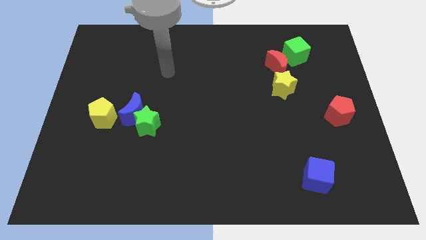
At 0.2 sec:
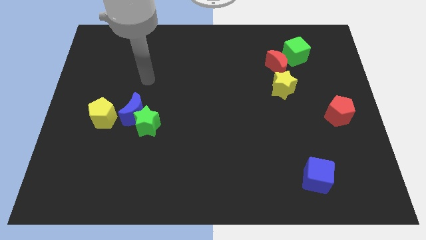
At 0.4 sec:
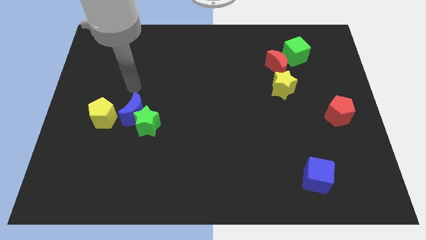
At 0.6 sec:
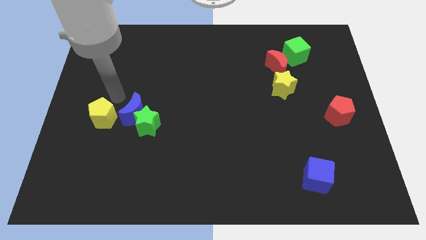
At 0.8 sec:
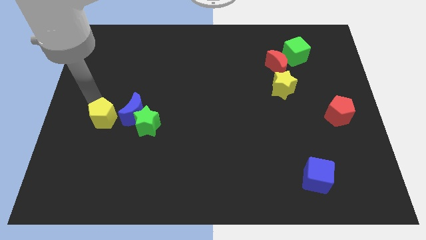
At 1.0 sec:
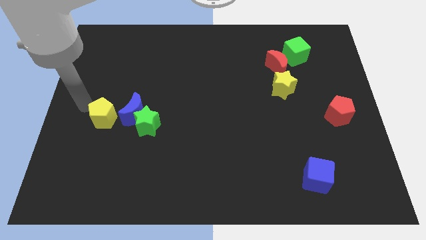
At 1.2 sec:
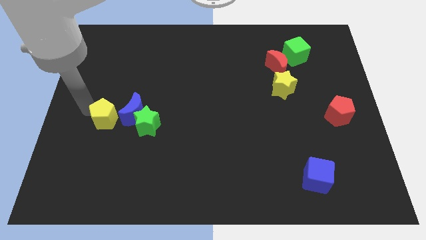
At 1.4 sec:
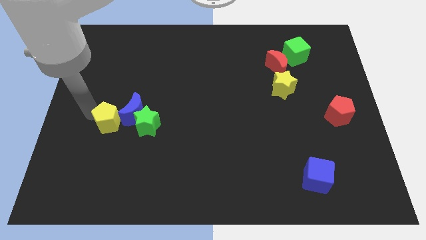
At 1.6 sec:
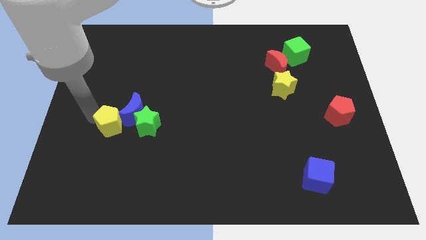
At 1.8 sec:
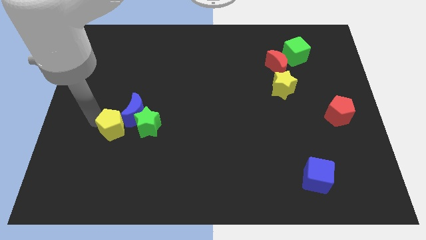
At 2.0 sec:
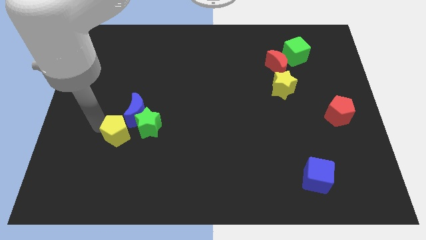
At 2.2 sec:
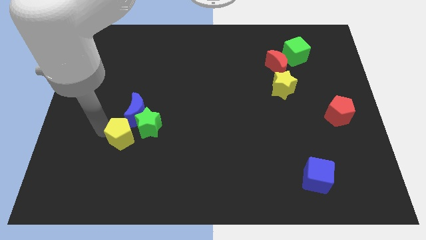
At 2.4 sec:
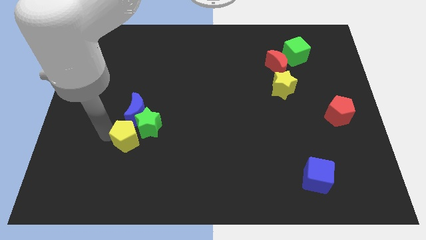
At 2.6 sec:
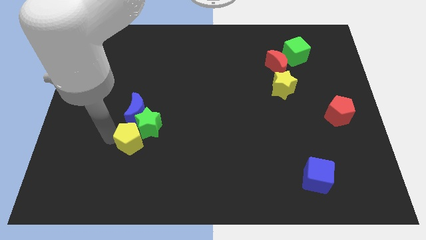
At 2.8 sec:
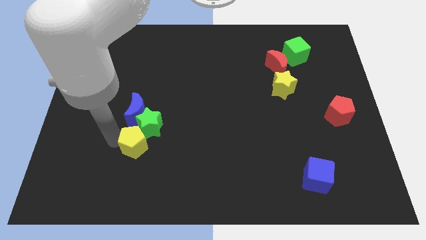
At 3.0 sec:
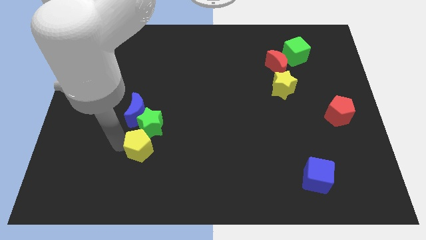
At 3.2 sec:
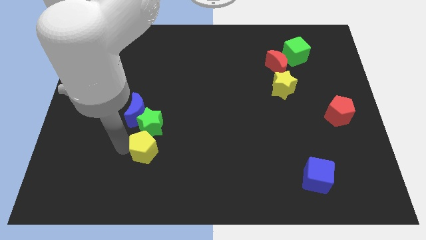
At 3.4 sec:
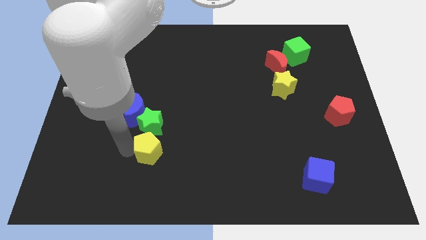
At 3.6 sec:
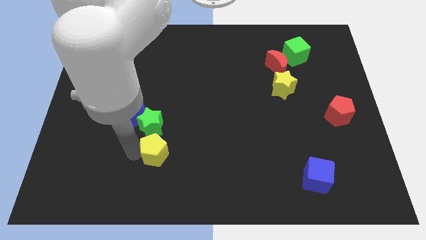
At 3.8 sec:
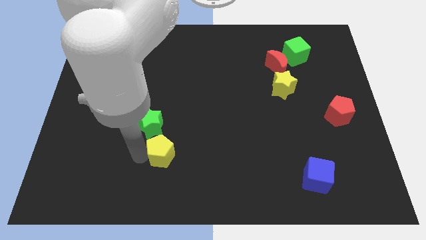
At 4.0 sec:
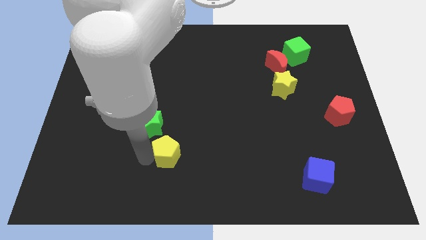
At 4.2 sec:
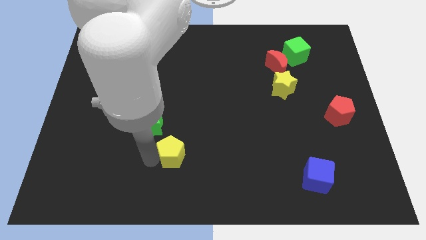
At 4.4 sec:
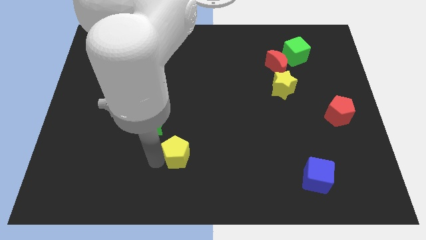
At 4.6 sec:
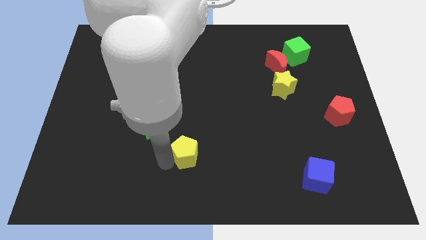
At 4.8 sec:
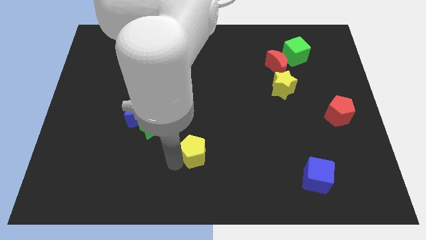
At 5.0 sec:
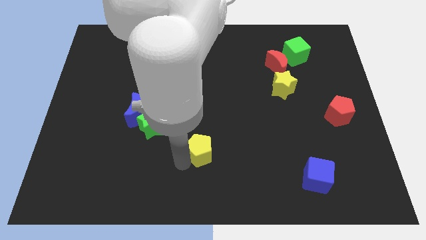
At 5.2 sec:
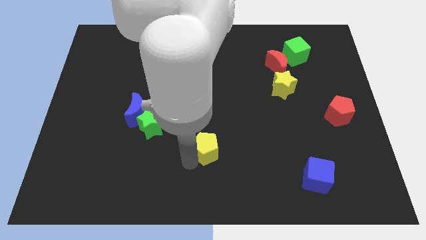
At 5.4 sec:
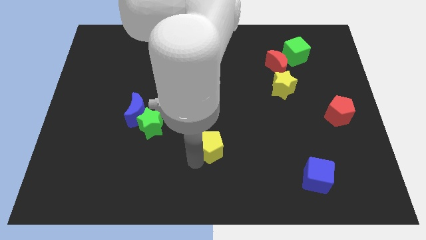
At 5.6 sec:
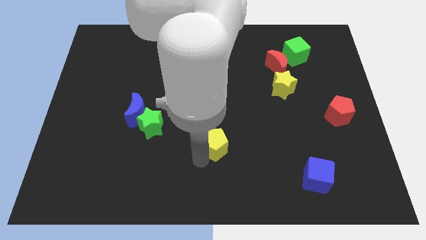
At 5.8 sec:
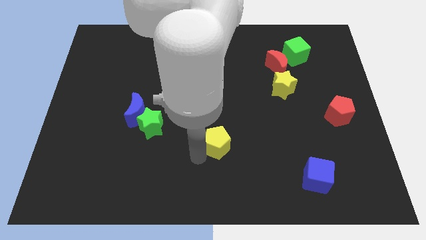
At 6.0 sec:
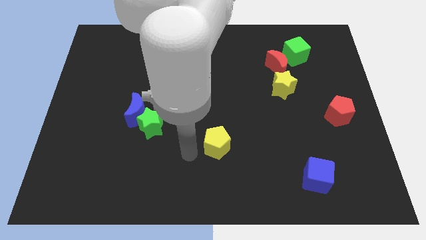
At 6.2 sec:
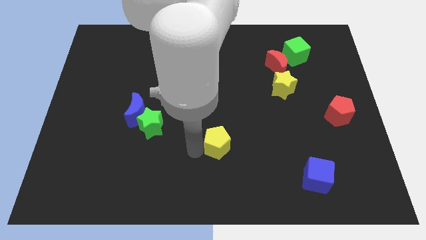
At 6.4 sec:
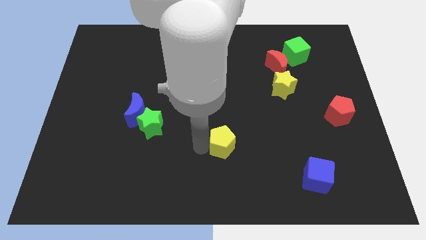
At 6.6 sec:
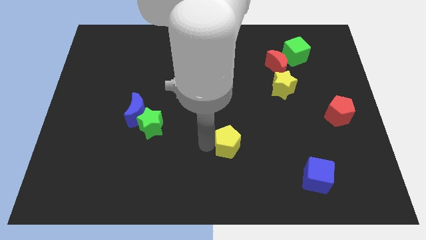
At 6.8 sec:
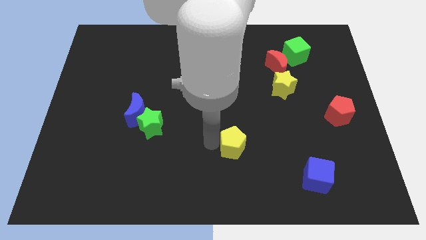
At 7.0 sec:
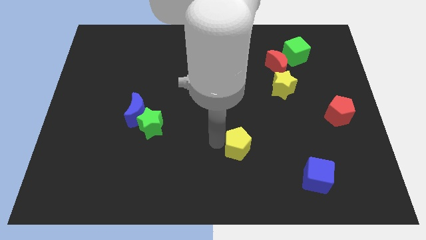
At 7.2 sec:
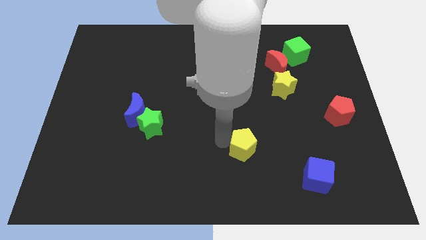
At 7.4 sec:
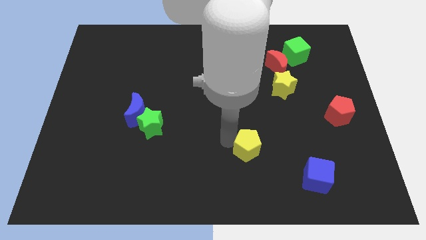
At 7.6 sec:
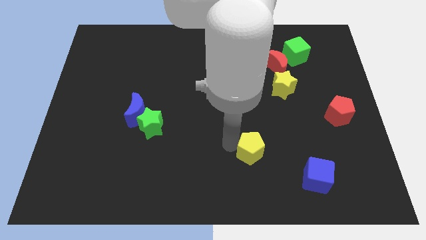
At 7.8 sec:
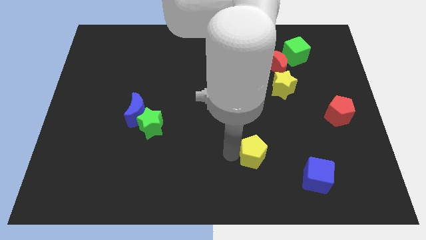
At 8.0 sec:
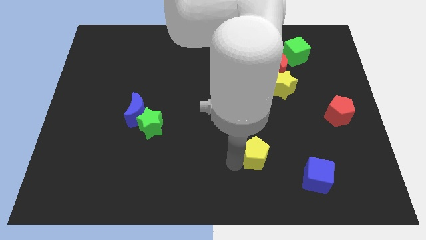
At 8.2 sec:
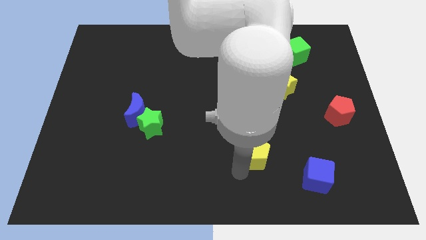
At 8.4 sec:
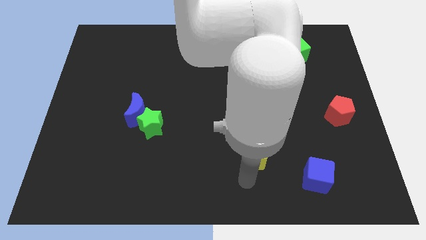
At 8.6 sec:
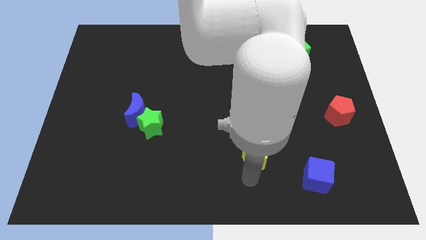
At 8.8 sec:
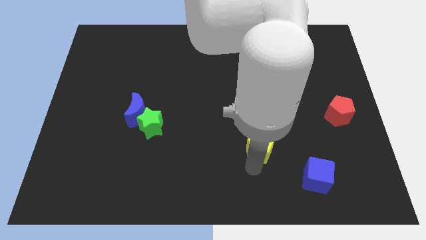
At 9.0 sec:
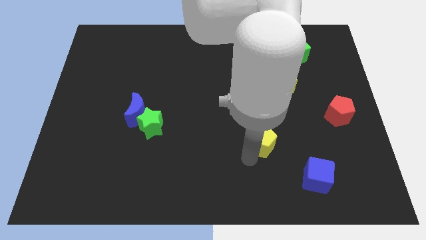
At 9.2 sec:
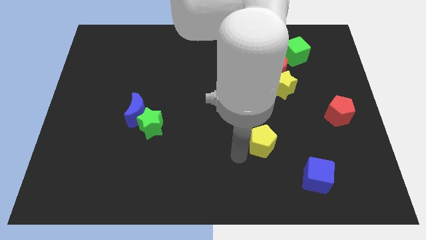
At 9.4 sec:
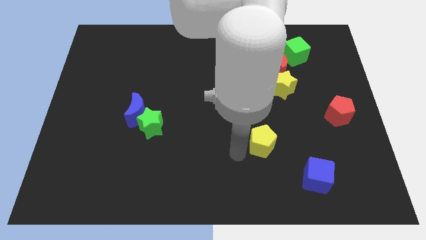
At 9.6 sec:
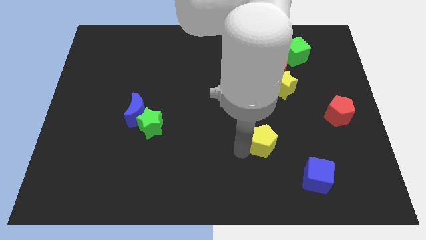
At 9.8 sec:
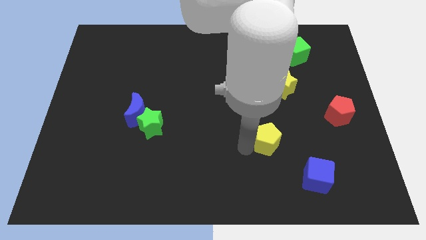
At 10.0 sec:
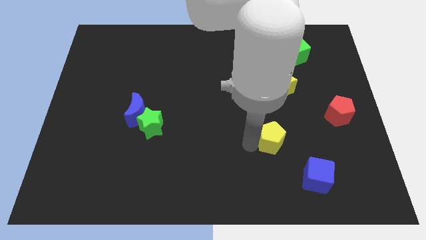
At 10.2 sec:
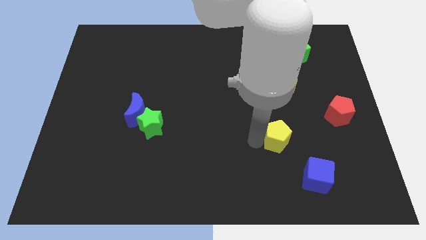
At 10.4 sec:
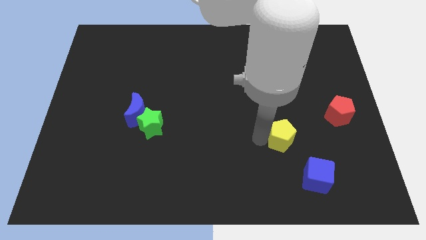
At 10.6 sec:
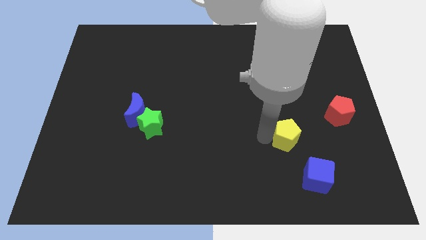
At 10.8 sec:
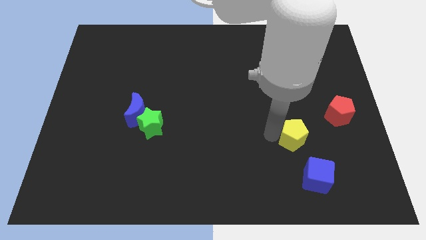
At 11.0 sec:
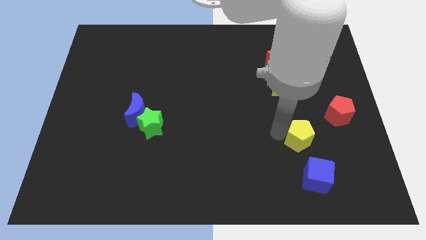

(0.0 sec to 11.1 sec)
move the yellow pentagon diagonally down and to the left of the red pentagon
